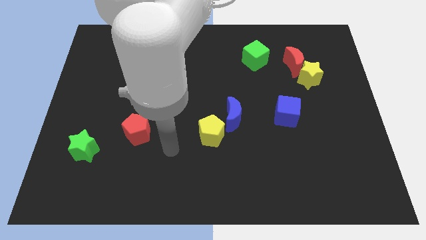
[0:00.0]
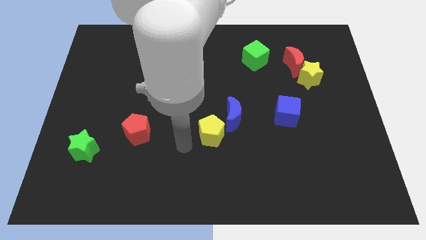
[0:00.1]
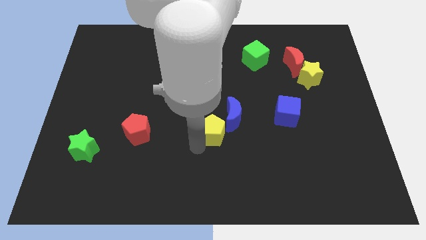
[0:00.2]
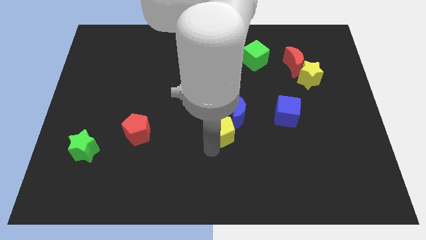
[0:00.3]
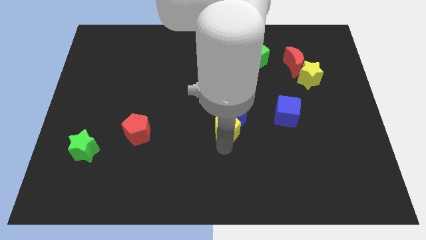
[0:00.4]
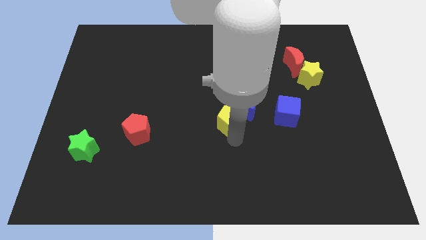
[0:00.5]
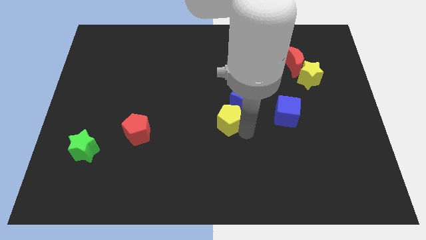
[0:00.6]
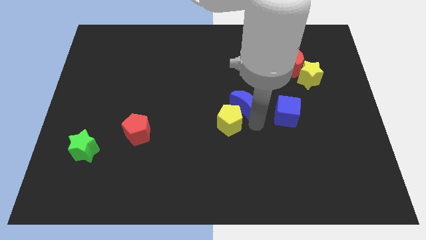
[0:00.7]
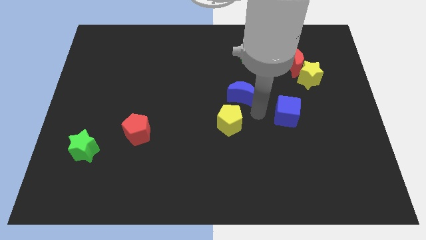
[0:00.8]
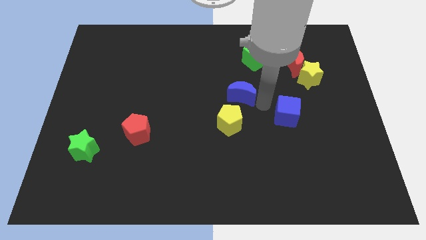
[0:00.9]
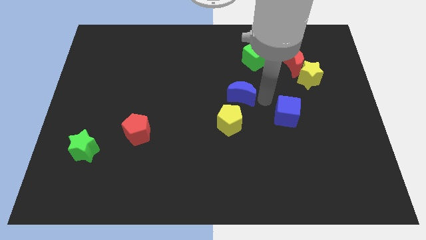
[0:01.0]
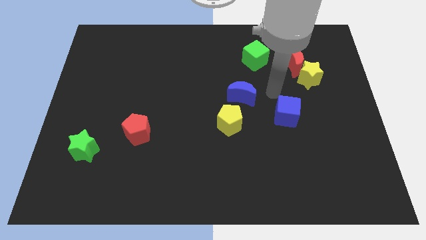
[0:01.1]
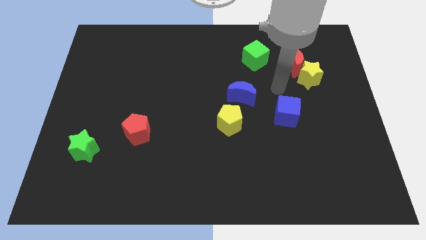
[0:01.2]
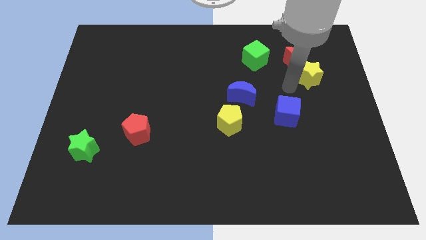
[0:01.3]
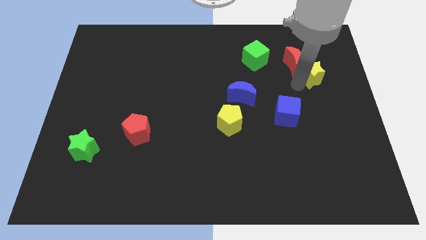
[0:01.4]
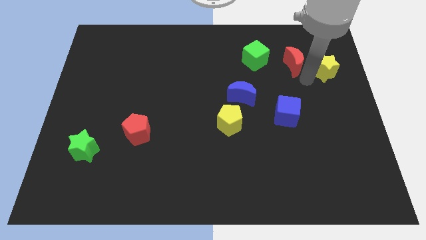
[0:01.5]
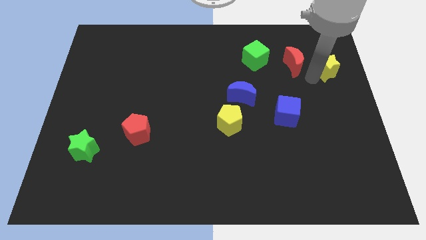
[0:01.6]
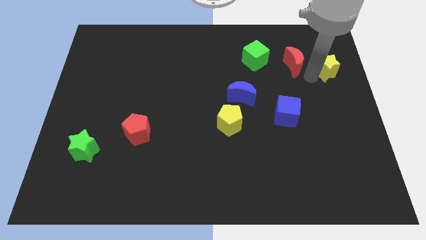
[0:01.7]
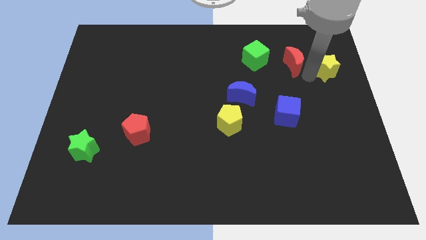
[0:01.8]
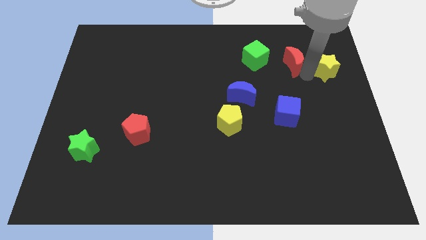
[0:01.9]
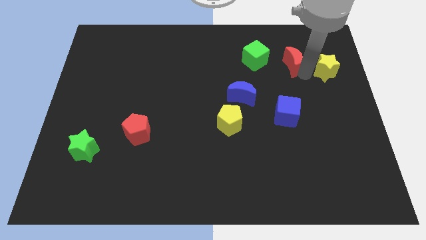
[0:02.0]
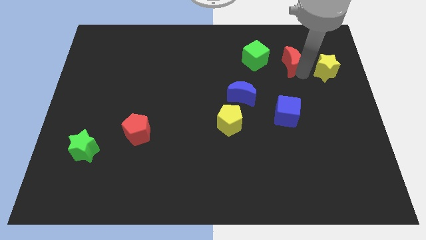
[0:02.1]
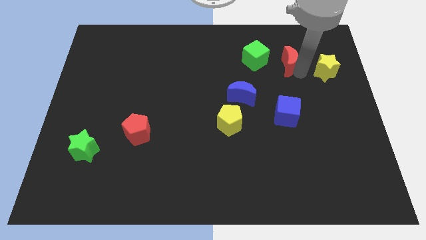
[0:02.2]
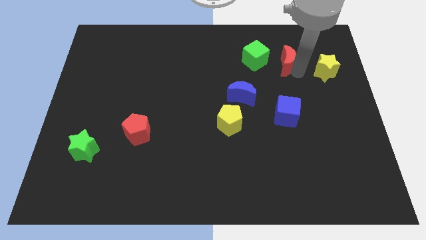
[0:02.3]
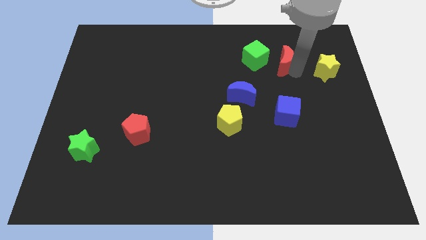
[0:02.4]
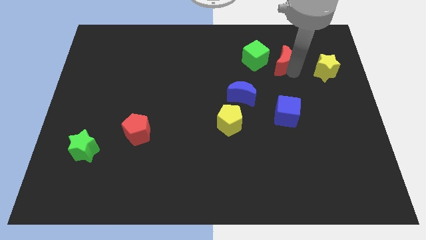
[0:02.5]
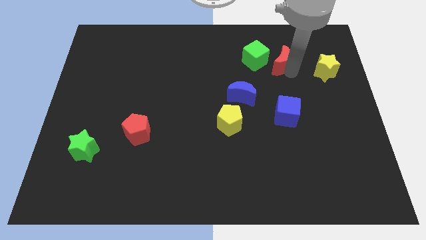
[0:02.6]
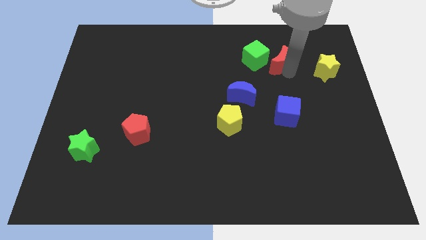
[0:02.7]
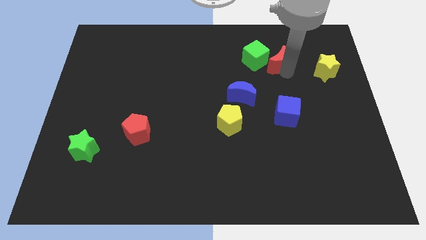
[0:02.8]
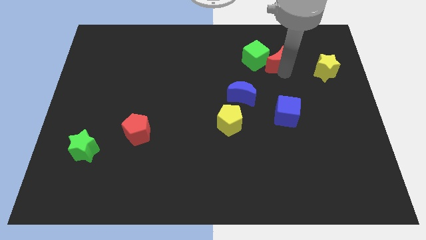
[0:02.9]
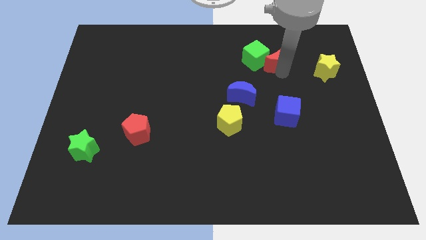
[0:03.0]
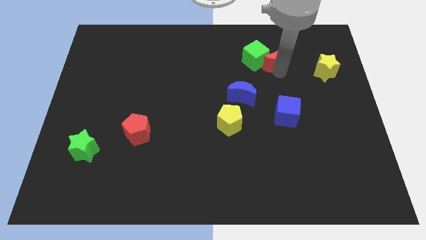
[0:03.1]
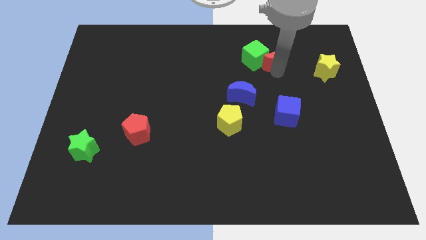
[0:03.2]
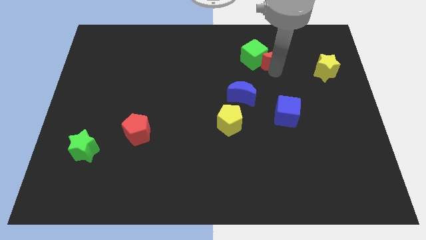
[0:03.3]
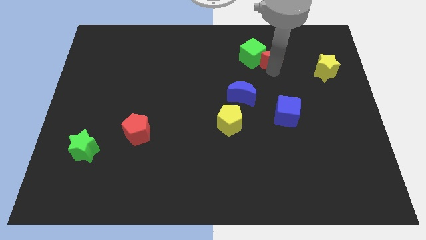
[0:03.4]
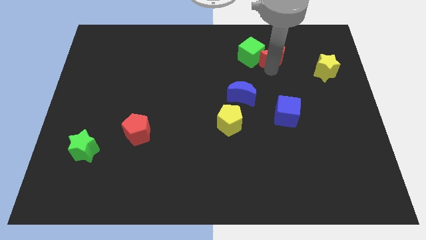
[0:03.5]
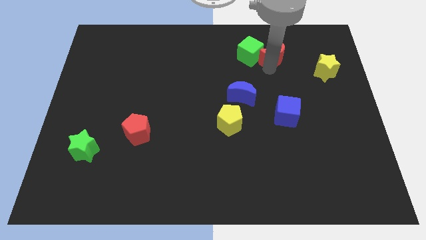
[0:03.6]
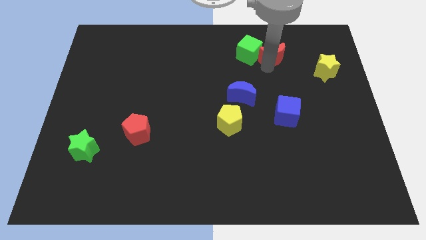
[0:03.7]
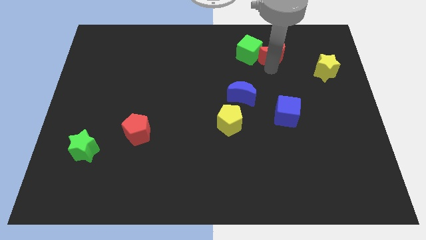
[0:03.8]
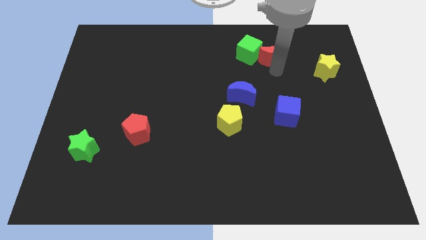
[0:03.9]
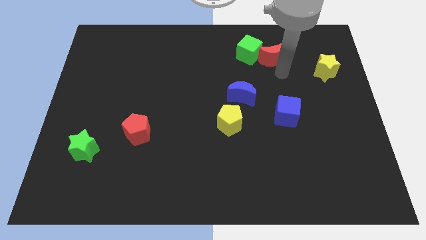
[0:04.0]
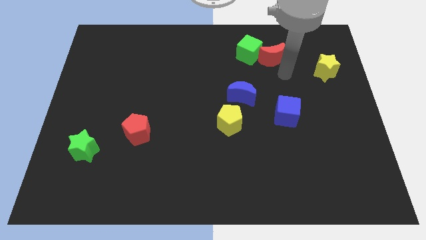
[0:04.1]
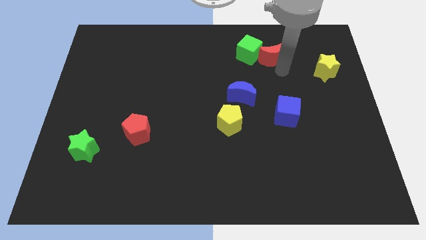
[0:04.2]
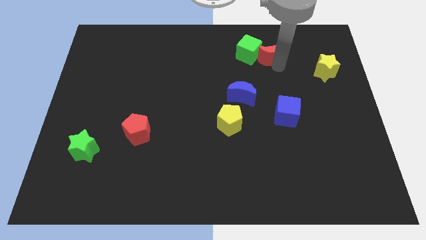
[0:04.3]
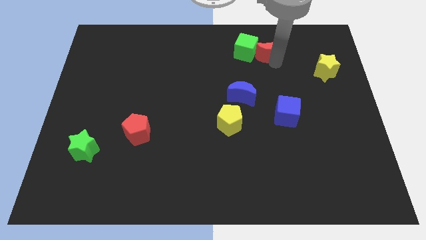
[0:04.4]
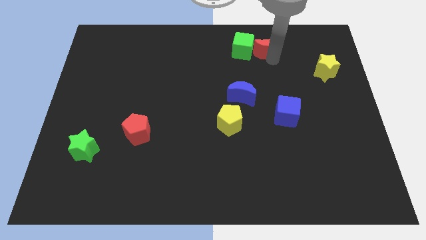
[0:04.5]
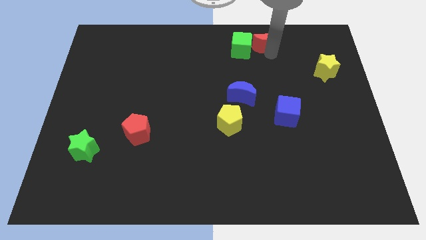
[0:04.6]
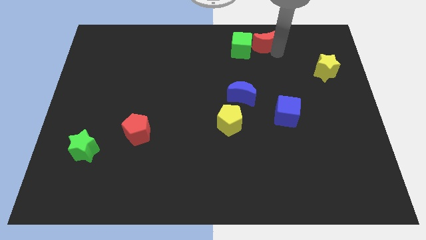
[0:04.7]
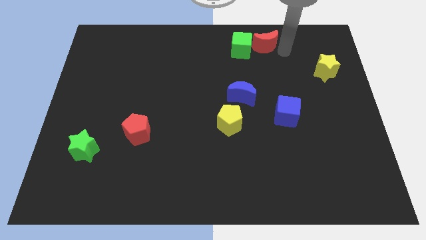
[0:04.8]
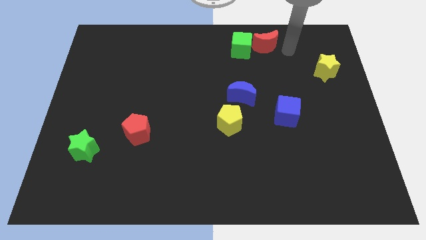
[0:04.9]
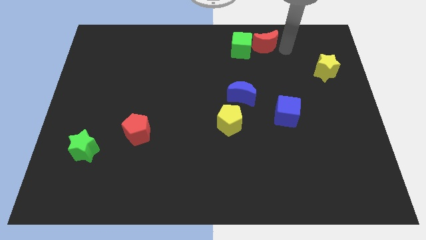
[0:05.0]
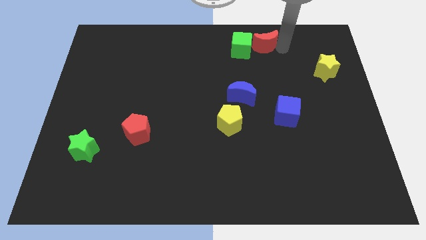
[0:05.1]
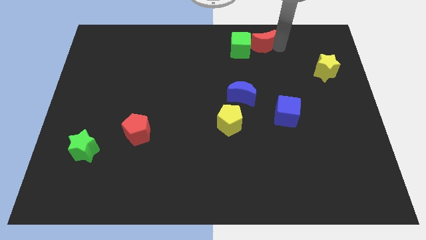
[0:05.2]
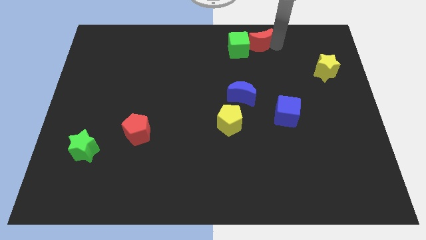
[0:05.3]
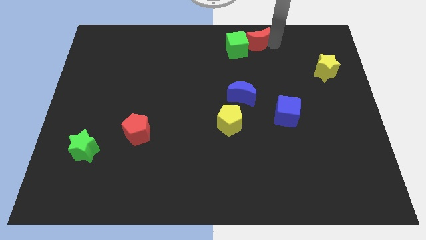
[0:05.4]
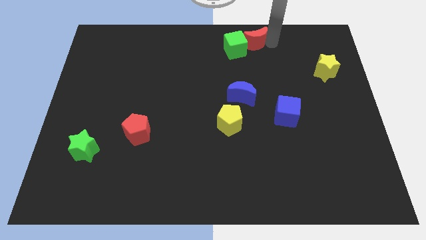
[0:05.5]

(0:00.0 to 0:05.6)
move the red moon to the towards your base

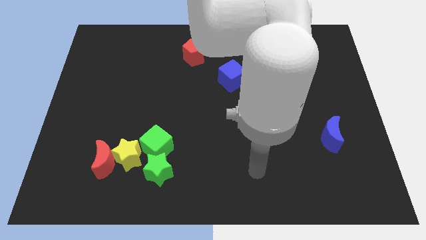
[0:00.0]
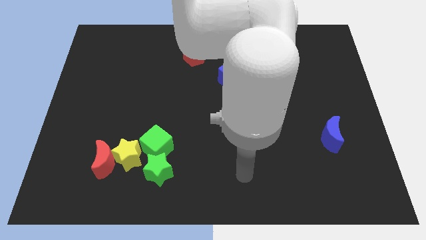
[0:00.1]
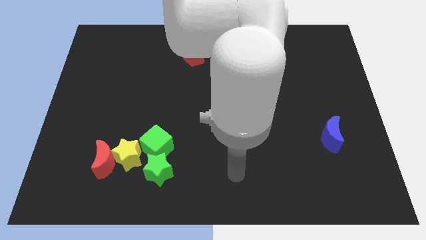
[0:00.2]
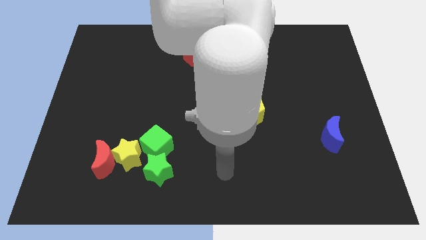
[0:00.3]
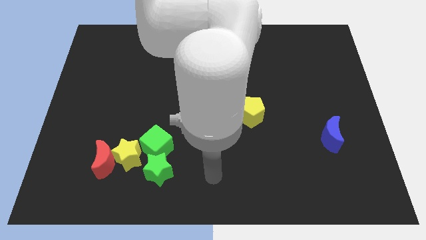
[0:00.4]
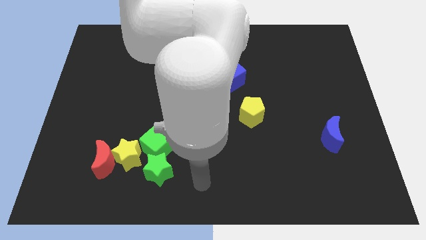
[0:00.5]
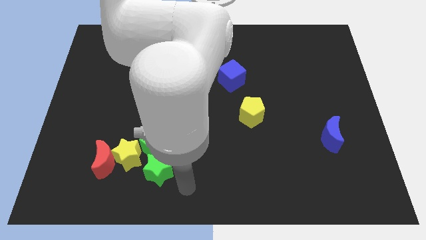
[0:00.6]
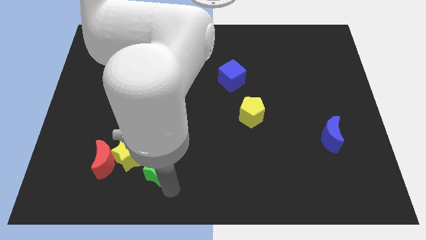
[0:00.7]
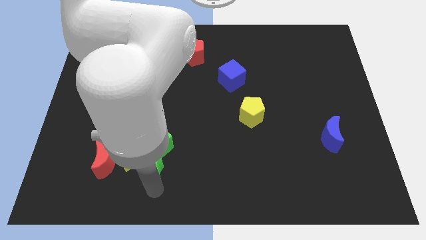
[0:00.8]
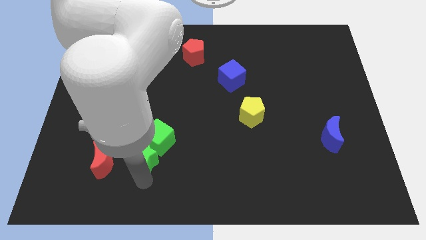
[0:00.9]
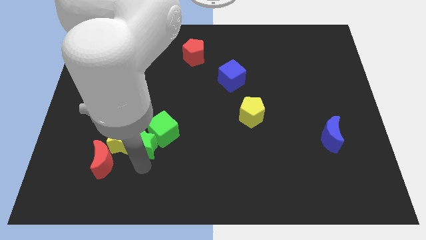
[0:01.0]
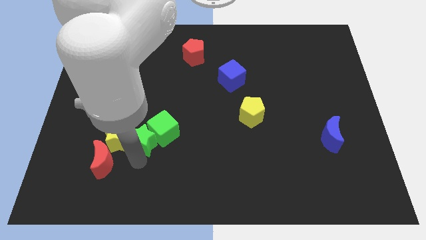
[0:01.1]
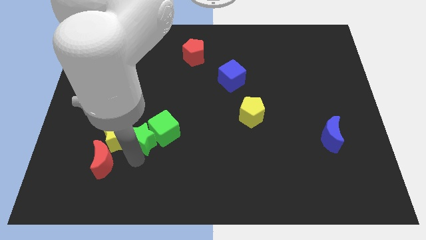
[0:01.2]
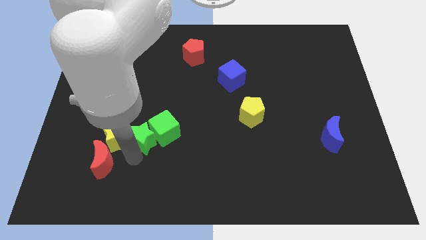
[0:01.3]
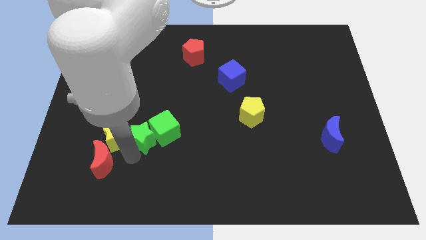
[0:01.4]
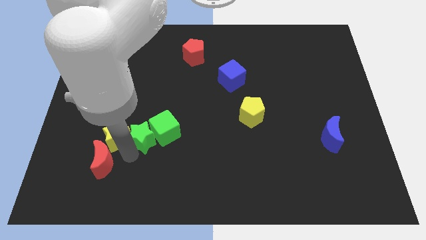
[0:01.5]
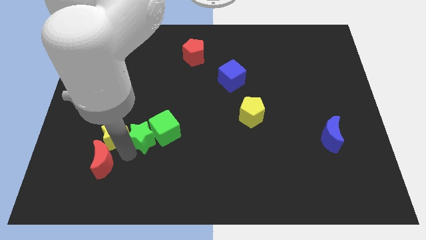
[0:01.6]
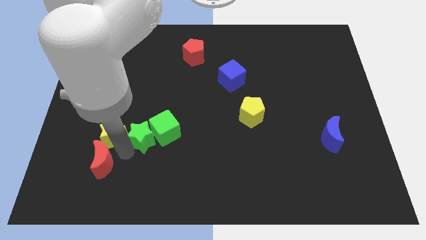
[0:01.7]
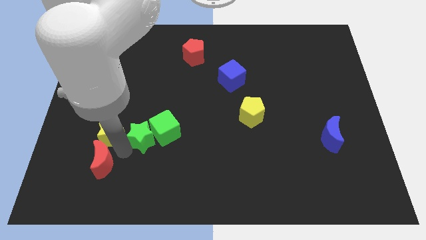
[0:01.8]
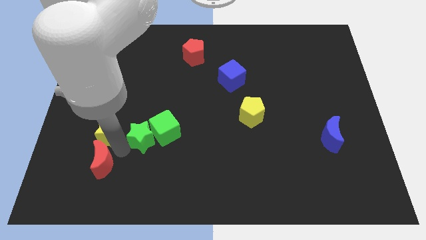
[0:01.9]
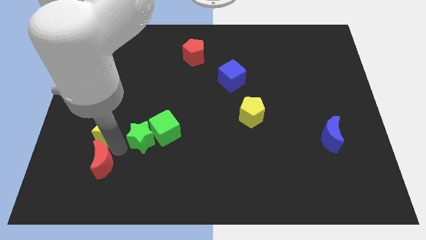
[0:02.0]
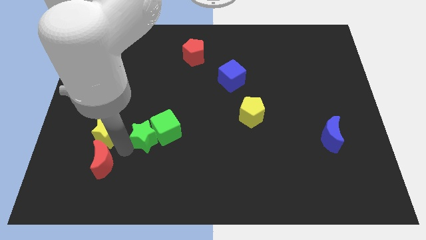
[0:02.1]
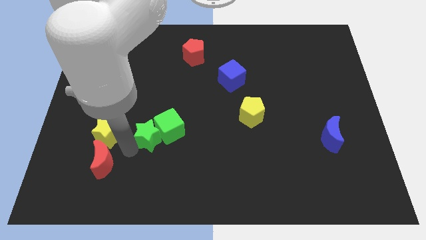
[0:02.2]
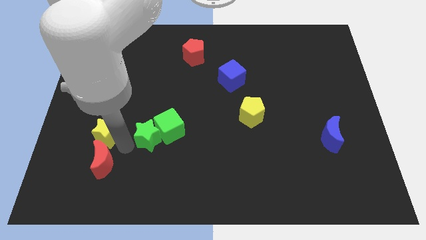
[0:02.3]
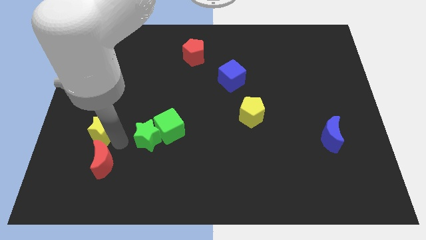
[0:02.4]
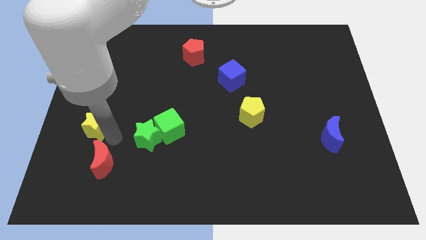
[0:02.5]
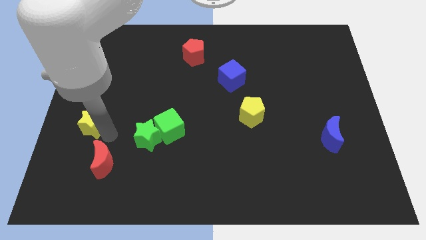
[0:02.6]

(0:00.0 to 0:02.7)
push the yellow star to the left side of the board
